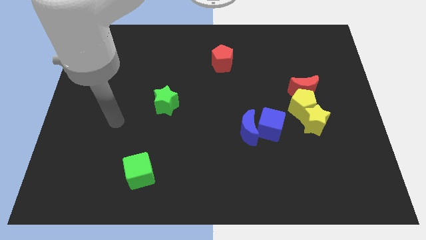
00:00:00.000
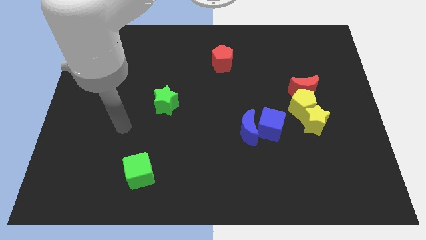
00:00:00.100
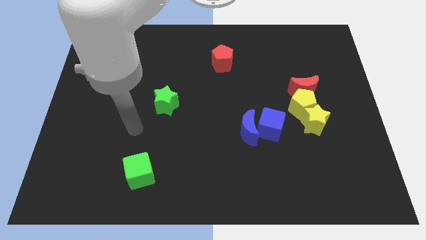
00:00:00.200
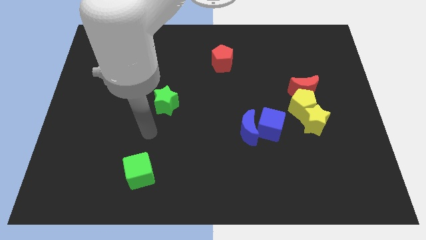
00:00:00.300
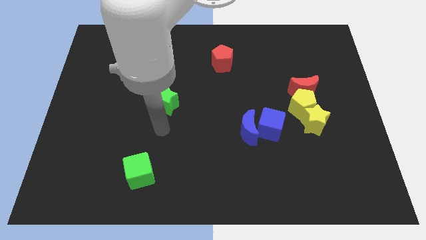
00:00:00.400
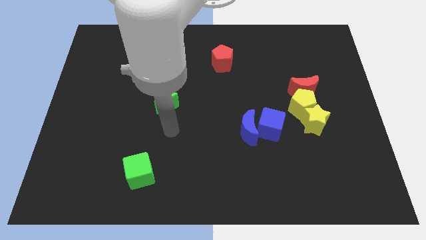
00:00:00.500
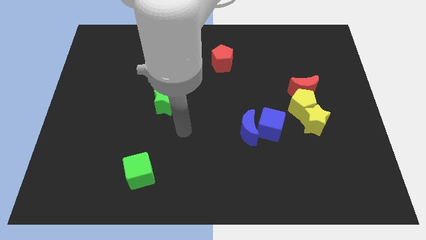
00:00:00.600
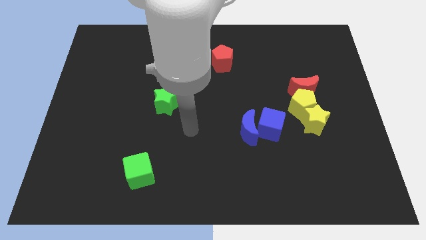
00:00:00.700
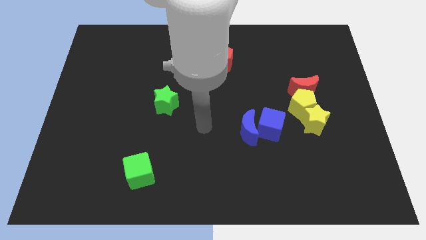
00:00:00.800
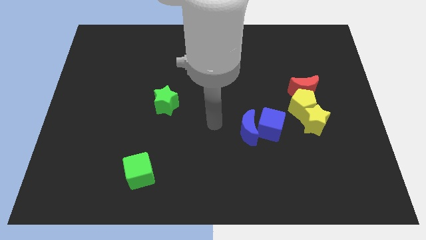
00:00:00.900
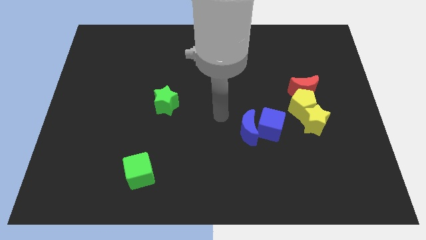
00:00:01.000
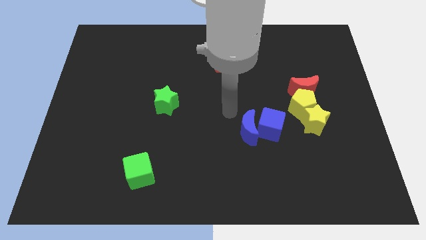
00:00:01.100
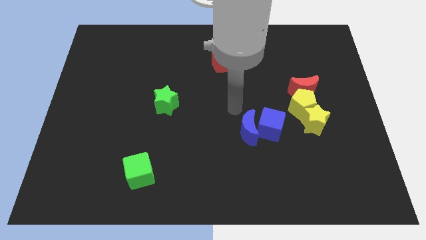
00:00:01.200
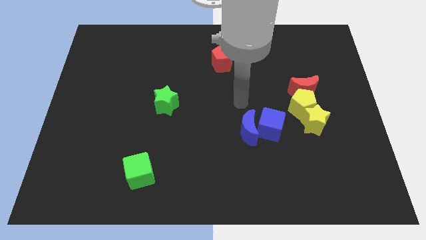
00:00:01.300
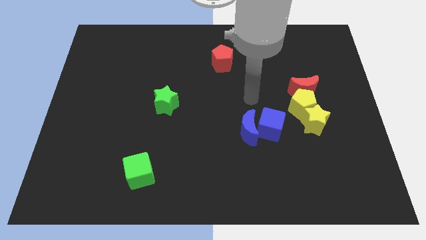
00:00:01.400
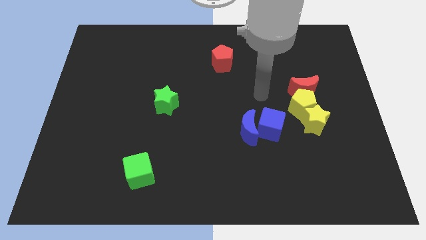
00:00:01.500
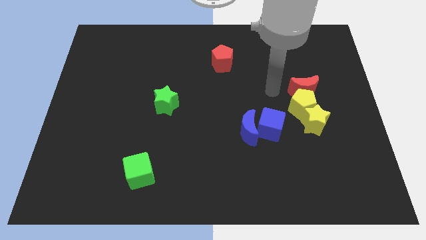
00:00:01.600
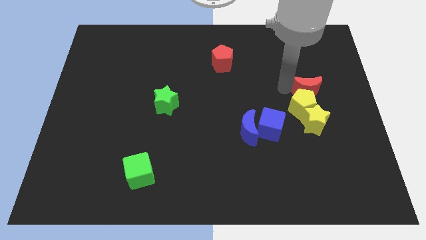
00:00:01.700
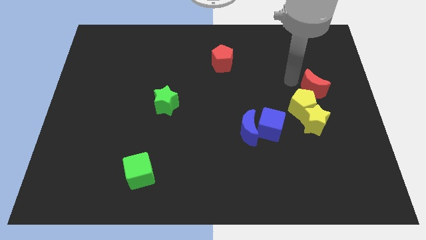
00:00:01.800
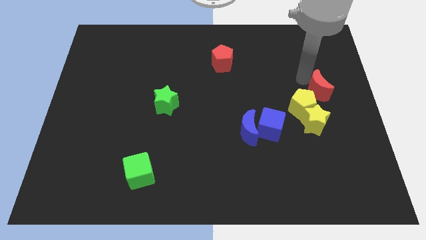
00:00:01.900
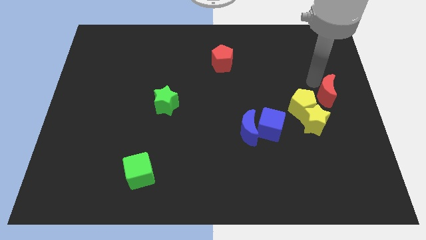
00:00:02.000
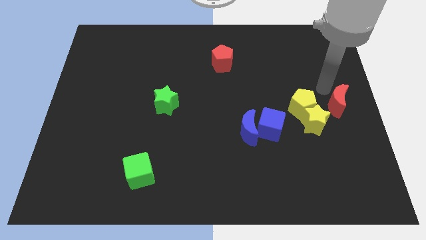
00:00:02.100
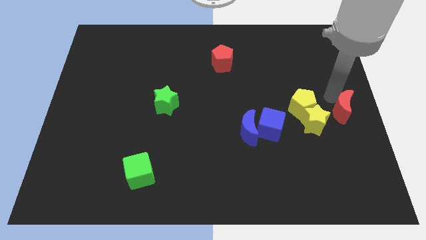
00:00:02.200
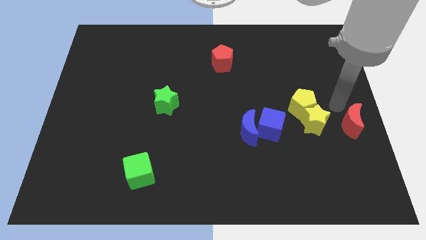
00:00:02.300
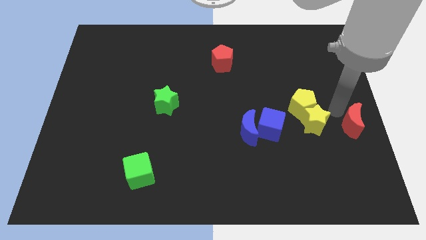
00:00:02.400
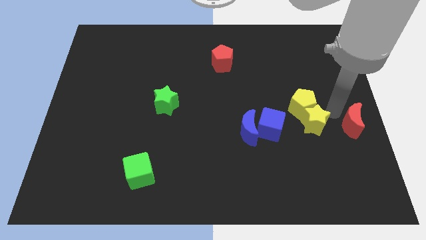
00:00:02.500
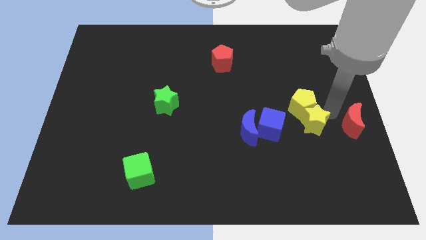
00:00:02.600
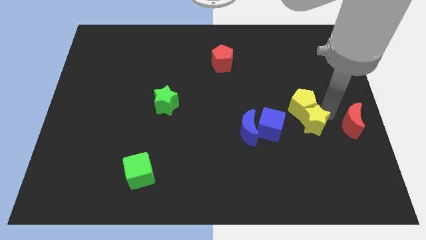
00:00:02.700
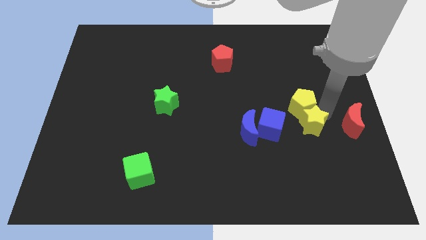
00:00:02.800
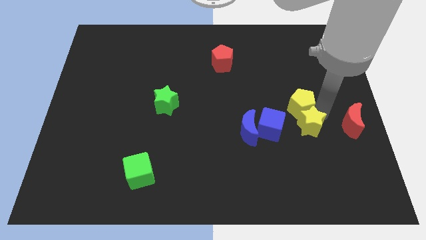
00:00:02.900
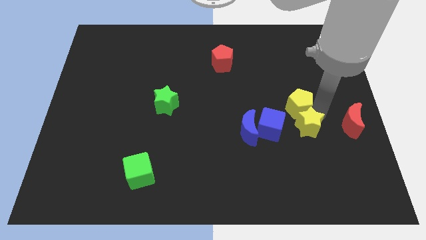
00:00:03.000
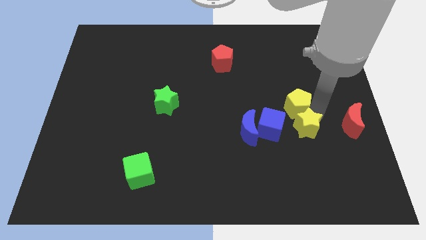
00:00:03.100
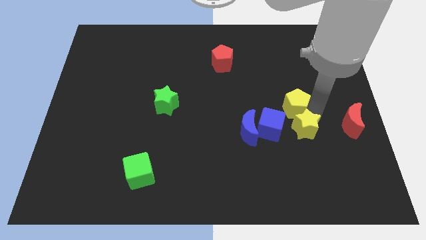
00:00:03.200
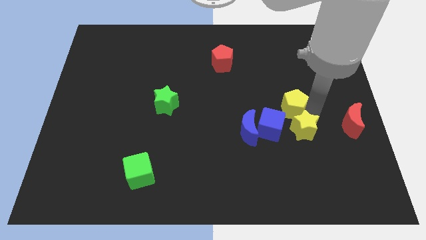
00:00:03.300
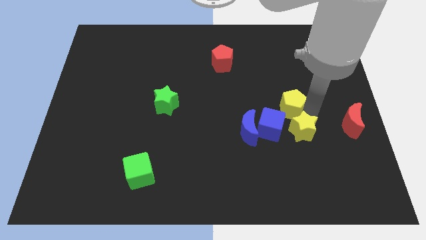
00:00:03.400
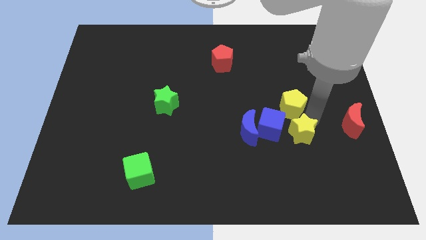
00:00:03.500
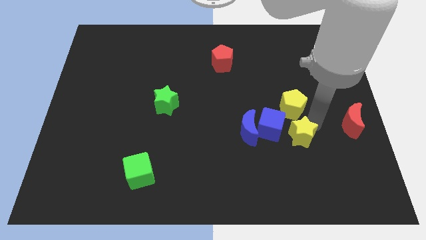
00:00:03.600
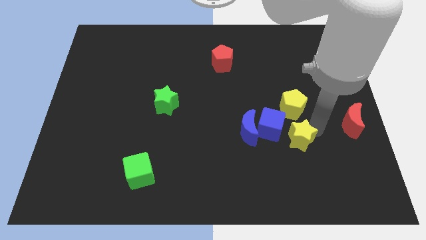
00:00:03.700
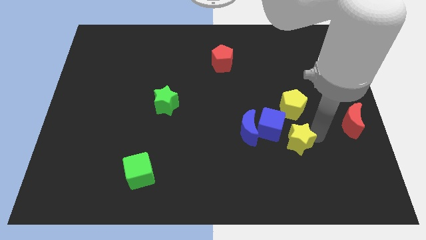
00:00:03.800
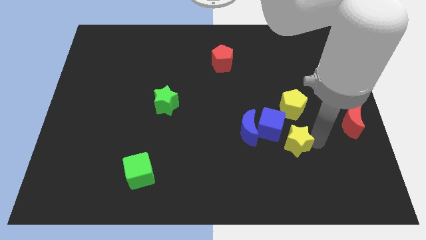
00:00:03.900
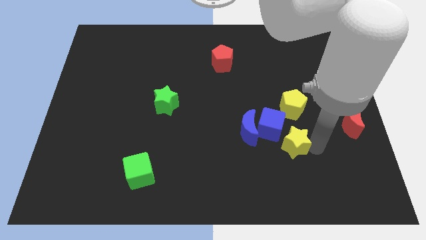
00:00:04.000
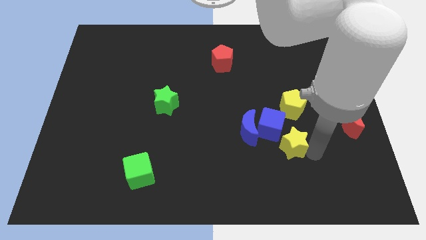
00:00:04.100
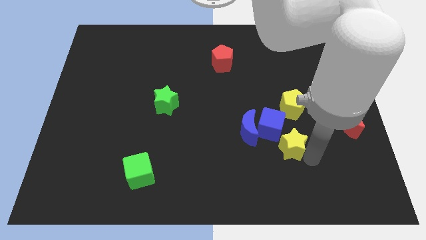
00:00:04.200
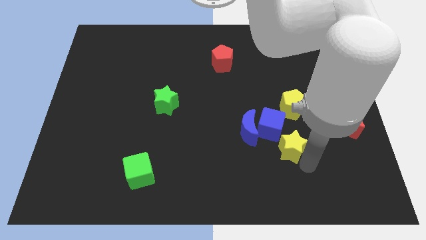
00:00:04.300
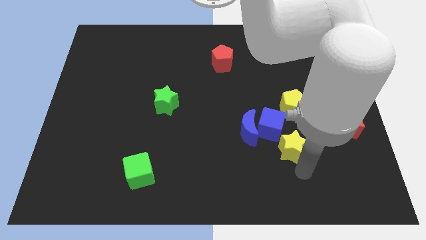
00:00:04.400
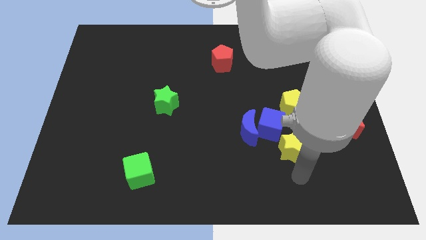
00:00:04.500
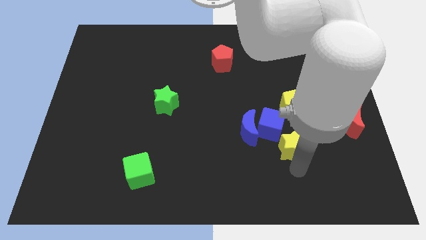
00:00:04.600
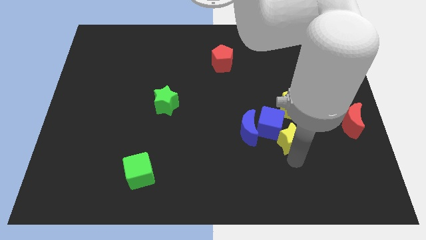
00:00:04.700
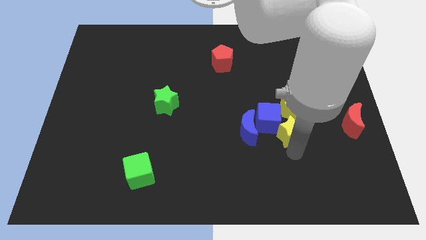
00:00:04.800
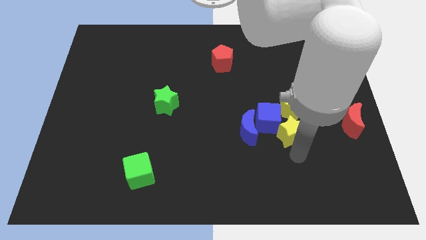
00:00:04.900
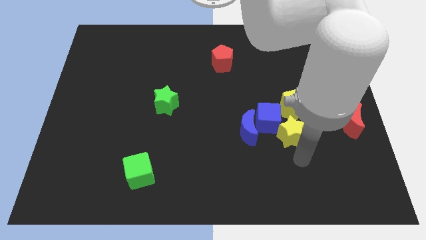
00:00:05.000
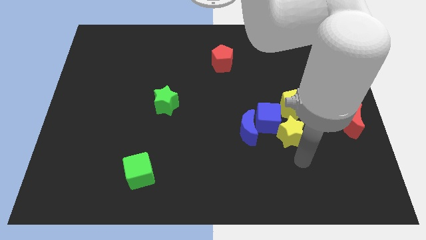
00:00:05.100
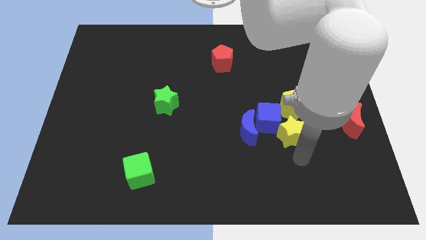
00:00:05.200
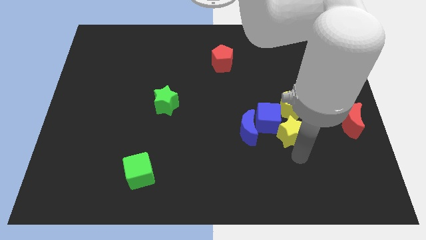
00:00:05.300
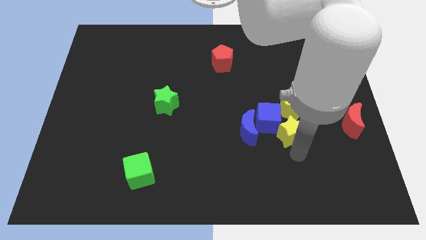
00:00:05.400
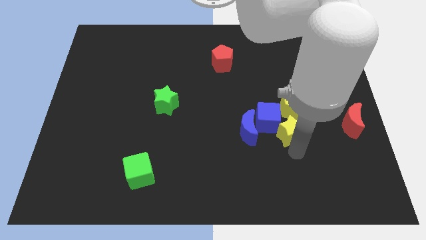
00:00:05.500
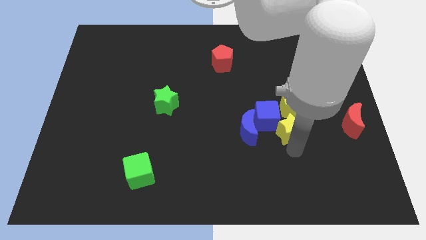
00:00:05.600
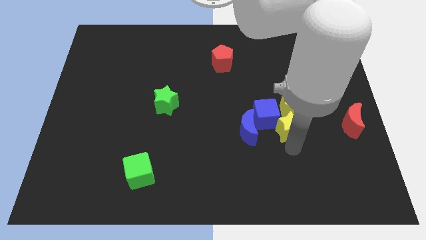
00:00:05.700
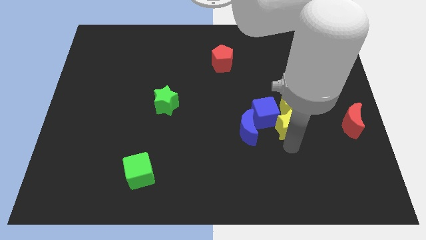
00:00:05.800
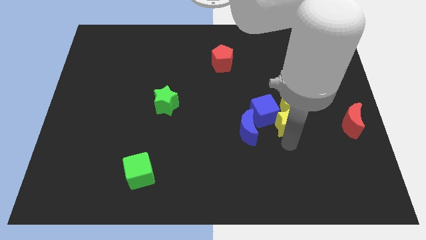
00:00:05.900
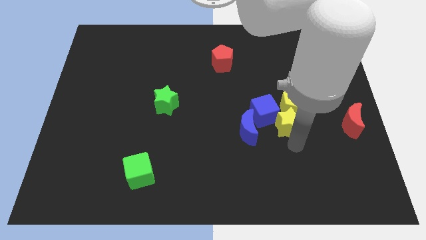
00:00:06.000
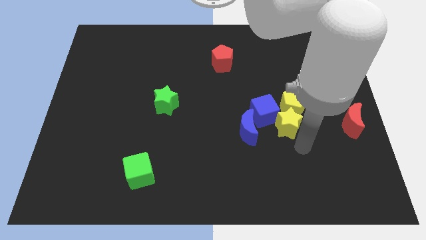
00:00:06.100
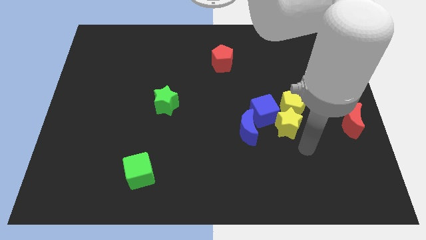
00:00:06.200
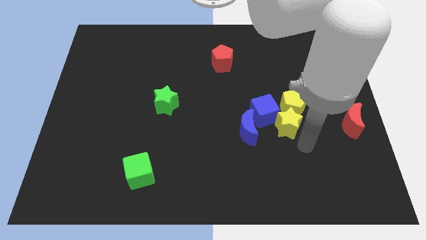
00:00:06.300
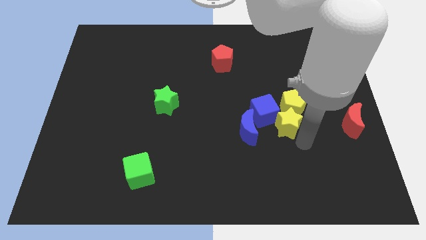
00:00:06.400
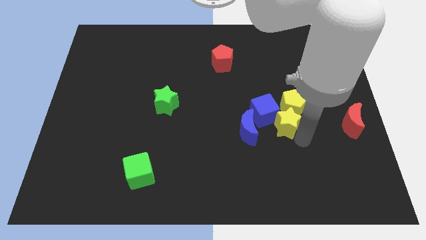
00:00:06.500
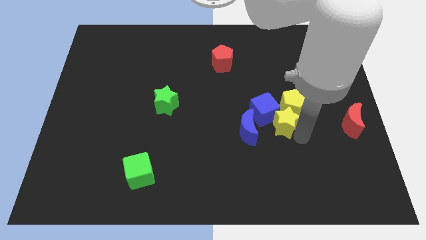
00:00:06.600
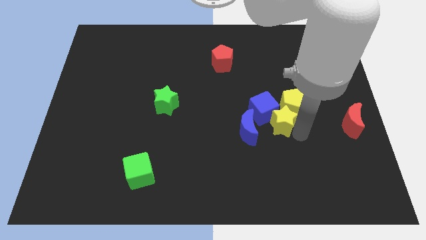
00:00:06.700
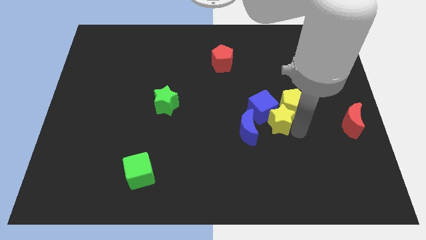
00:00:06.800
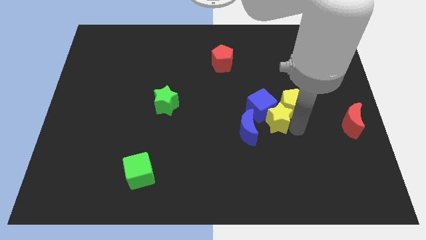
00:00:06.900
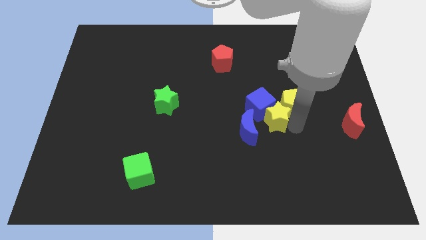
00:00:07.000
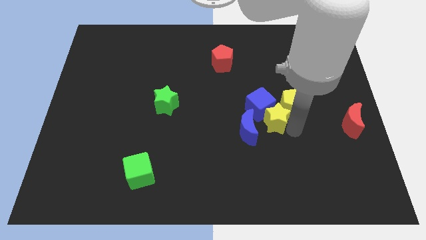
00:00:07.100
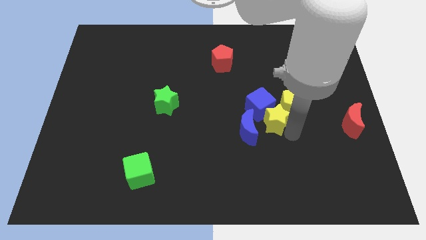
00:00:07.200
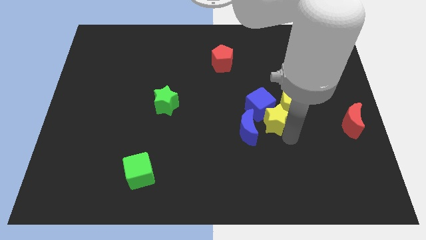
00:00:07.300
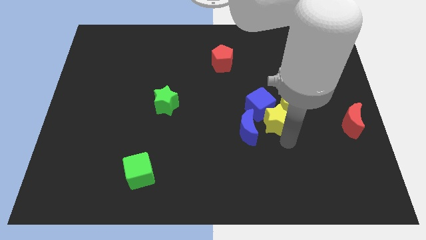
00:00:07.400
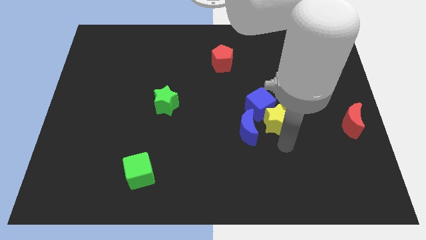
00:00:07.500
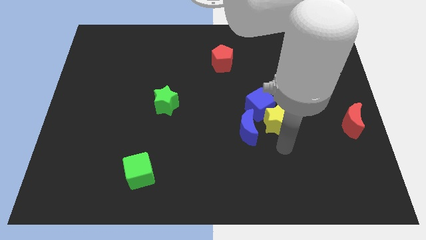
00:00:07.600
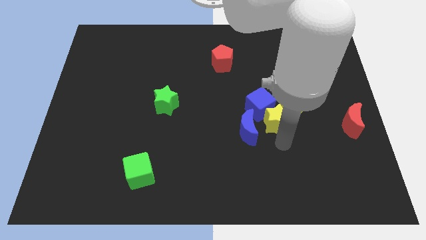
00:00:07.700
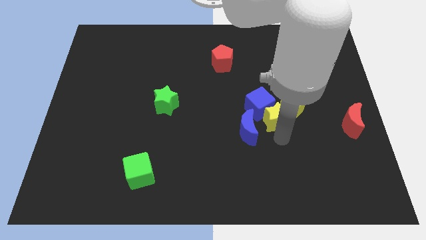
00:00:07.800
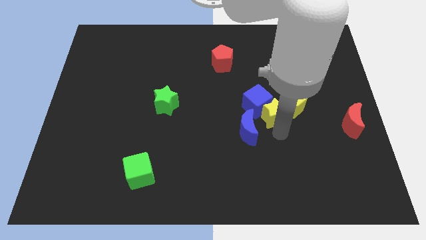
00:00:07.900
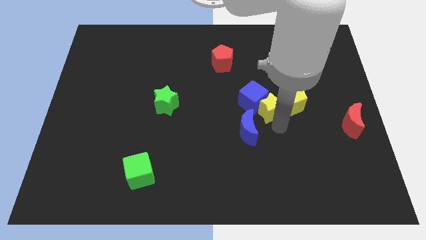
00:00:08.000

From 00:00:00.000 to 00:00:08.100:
slide the yellow star upwards and to the left a little bit
